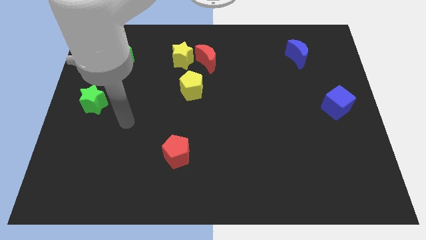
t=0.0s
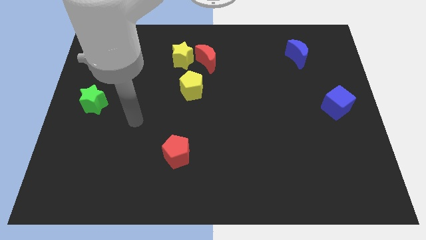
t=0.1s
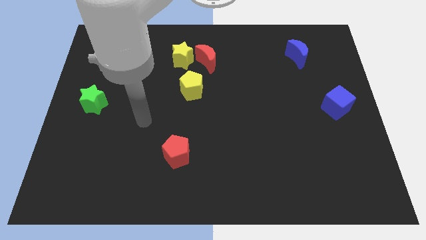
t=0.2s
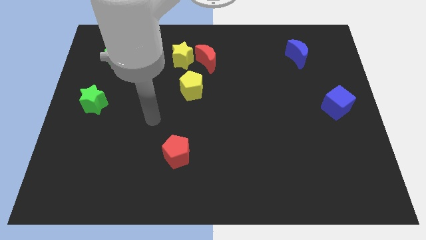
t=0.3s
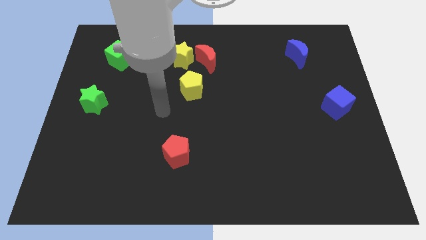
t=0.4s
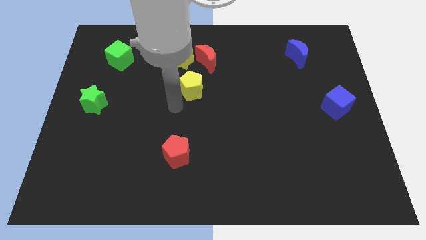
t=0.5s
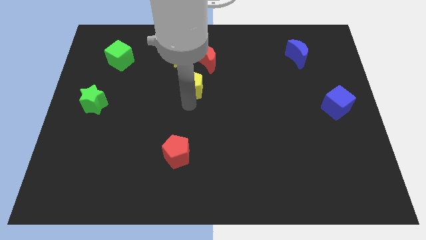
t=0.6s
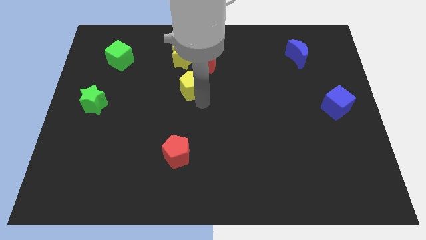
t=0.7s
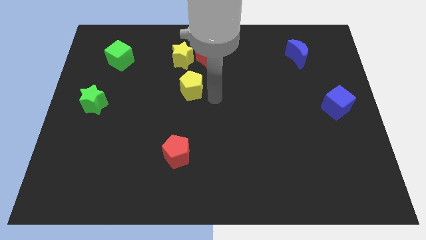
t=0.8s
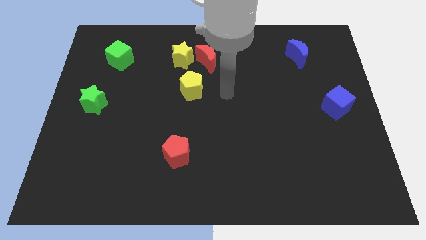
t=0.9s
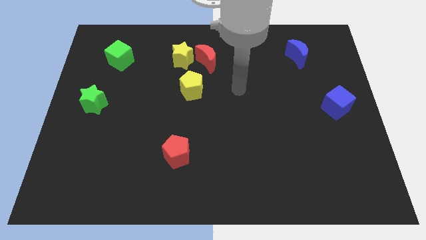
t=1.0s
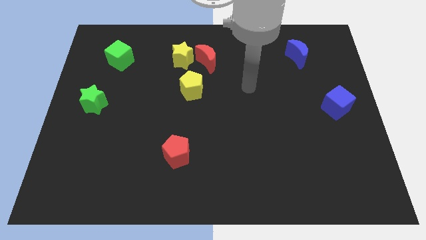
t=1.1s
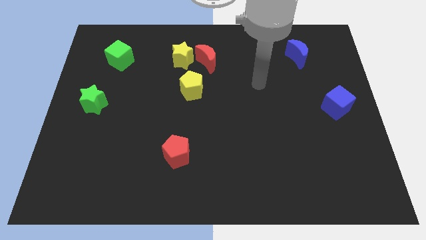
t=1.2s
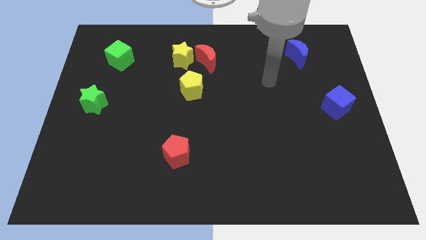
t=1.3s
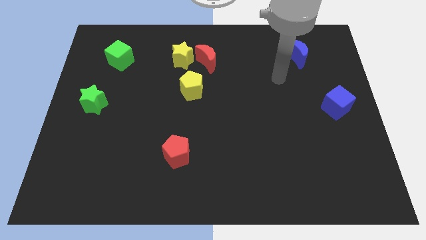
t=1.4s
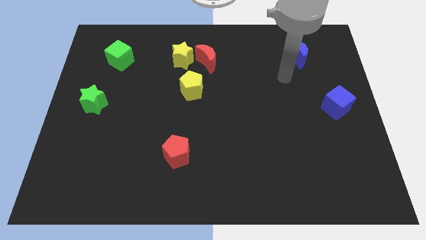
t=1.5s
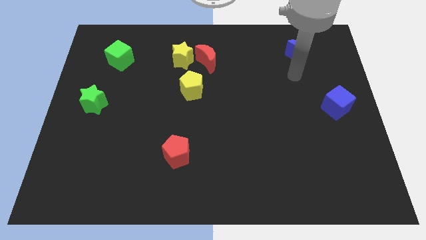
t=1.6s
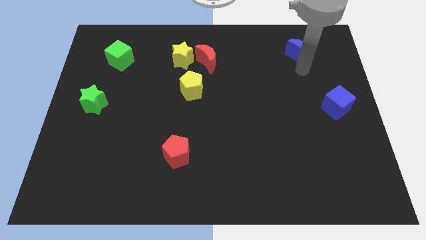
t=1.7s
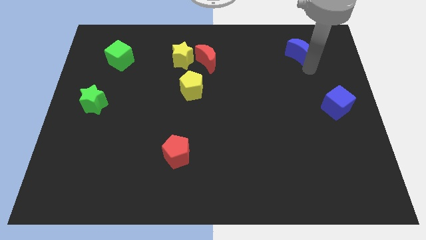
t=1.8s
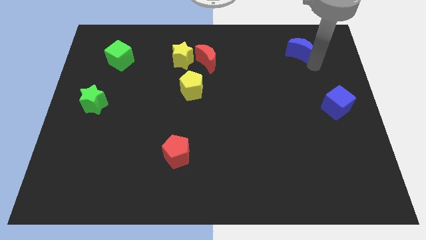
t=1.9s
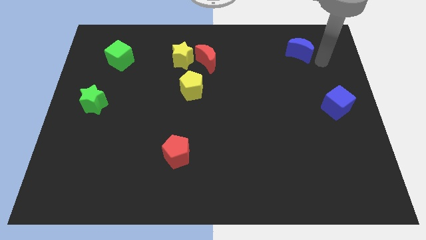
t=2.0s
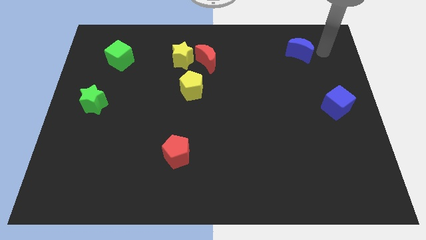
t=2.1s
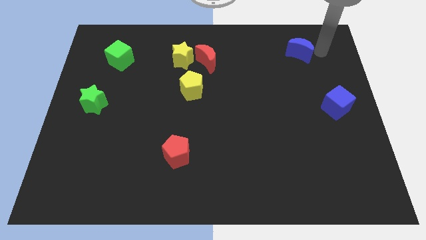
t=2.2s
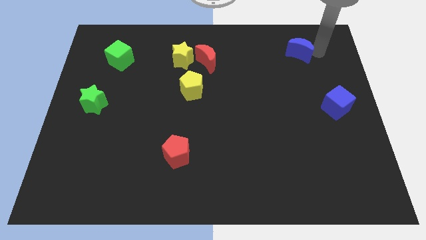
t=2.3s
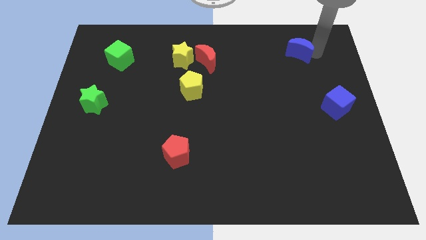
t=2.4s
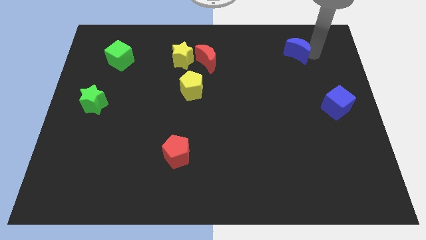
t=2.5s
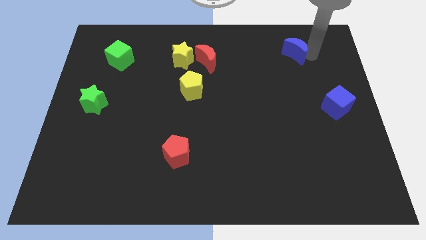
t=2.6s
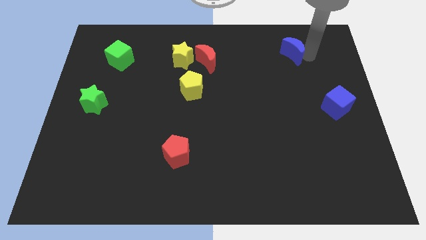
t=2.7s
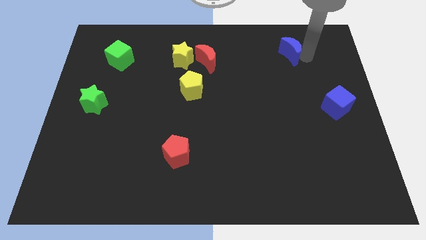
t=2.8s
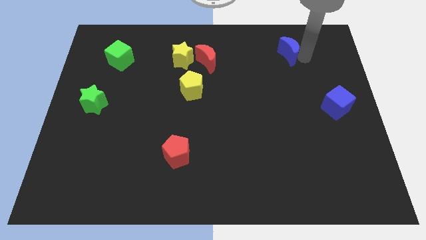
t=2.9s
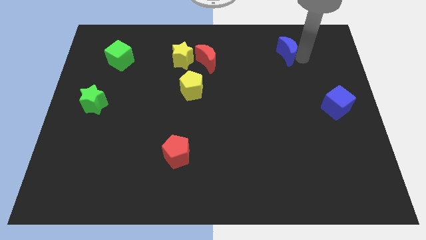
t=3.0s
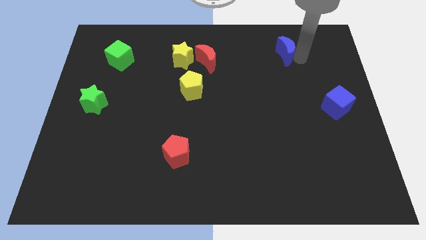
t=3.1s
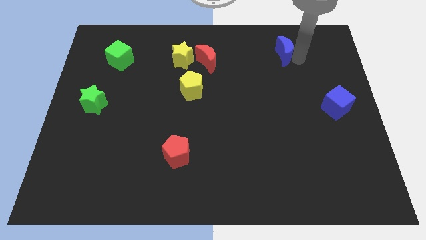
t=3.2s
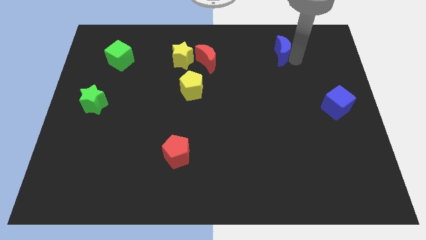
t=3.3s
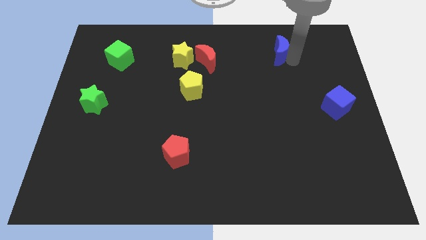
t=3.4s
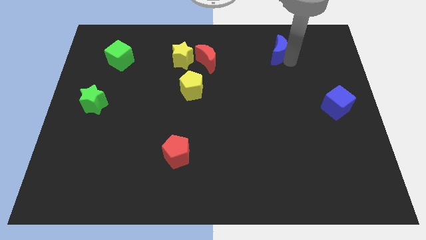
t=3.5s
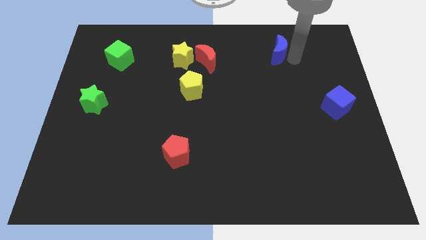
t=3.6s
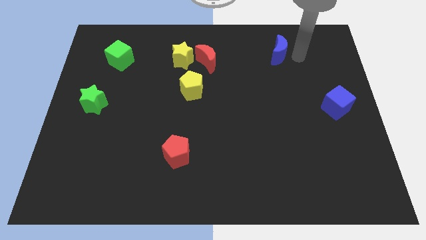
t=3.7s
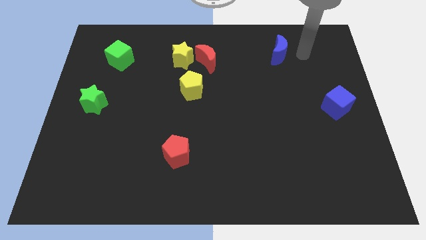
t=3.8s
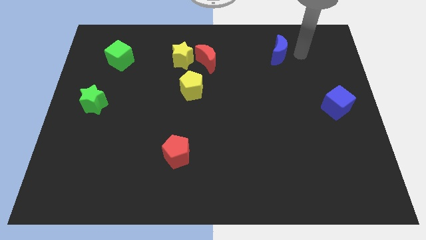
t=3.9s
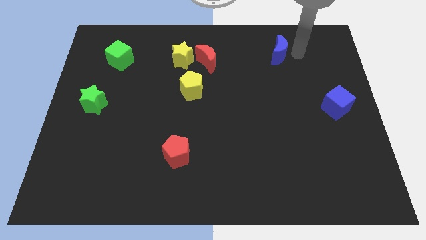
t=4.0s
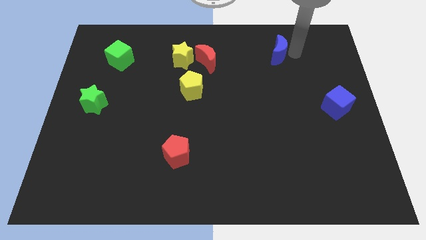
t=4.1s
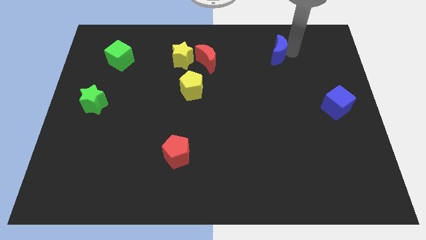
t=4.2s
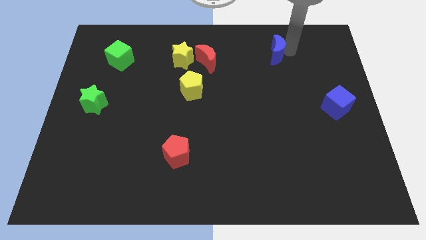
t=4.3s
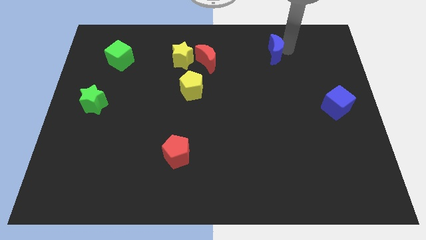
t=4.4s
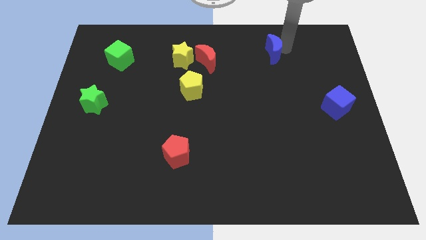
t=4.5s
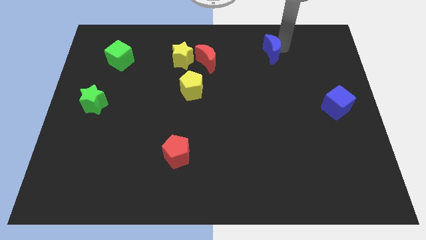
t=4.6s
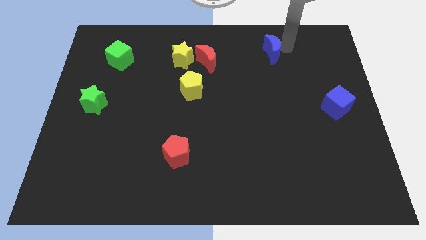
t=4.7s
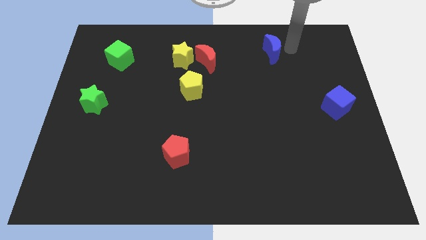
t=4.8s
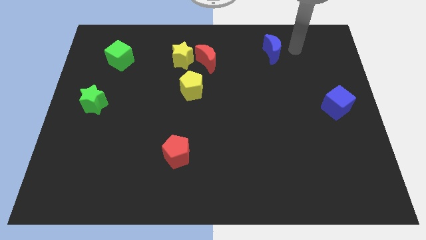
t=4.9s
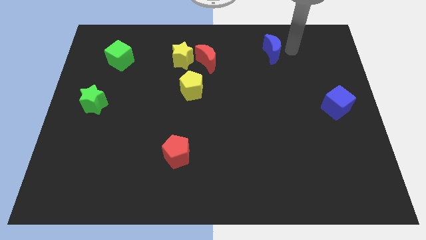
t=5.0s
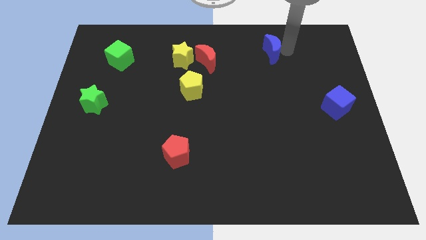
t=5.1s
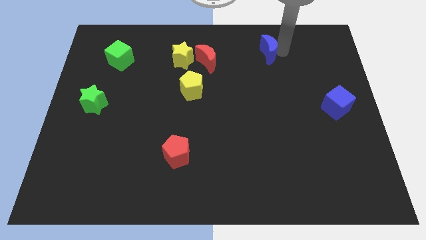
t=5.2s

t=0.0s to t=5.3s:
move the blue moon slightly left

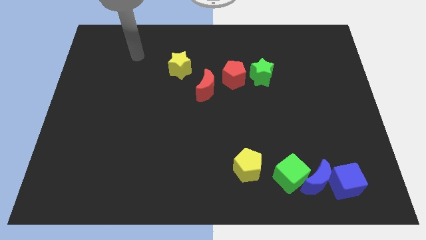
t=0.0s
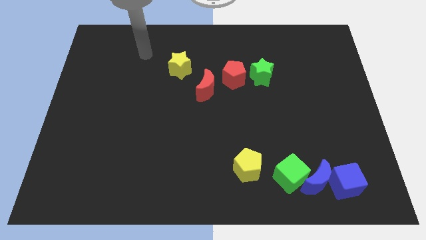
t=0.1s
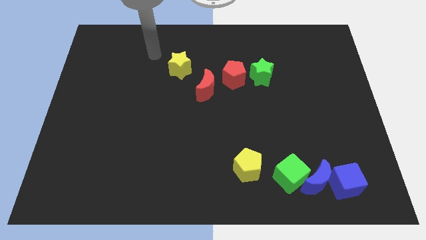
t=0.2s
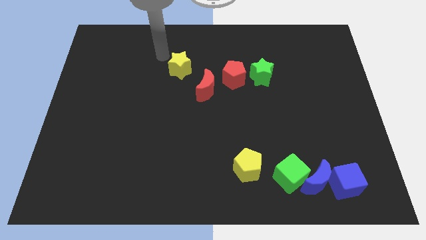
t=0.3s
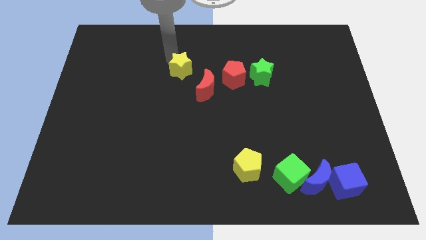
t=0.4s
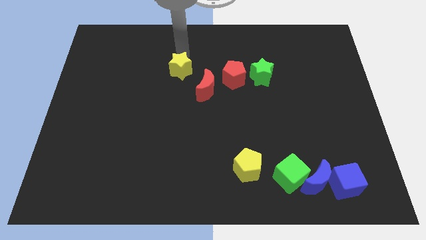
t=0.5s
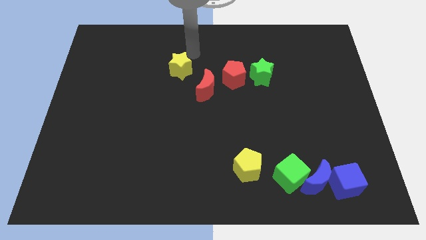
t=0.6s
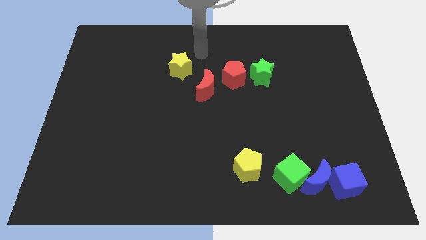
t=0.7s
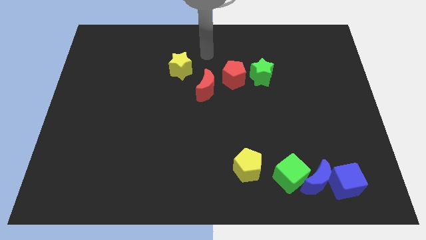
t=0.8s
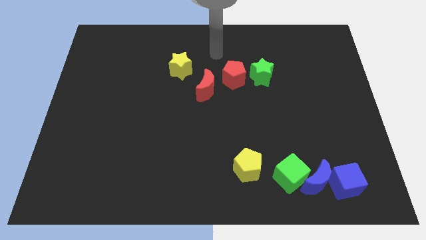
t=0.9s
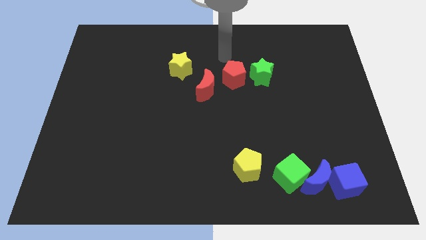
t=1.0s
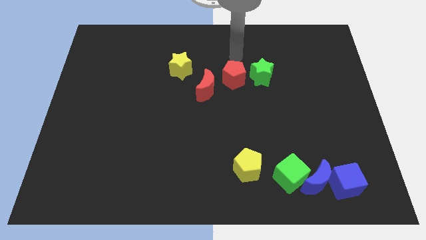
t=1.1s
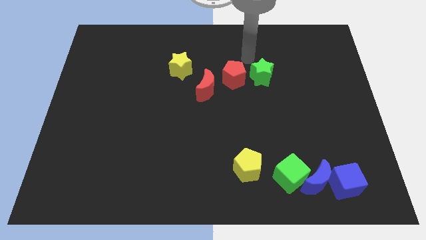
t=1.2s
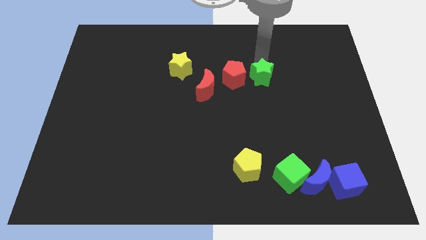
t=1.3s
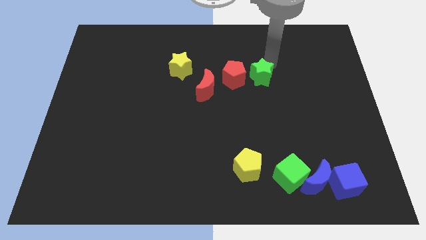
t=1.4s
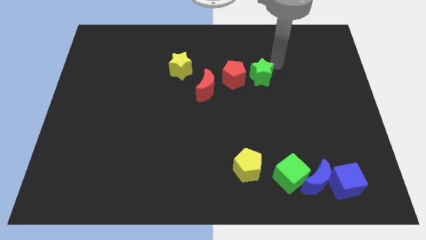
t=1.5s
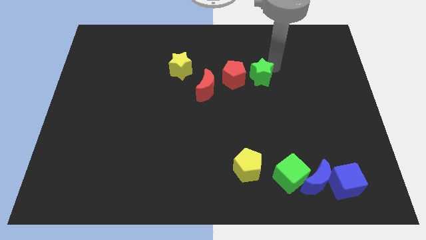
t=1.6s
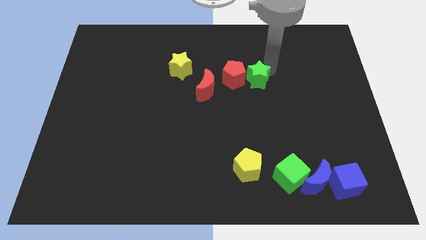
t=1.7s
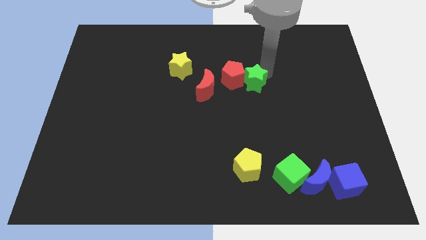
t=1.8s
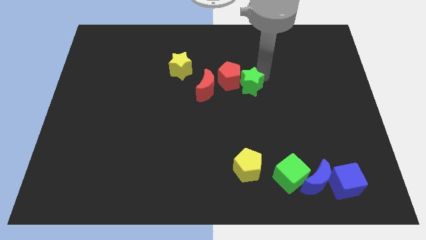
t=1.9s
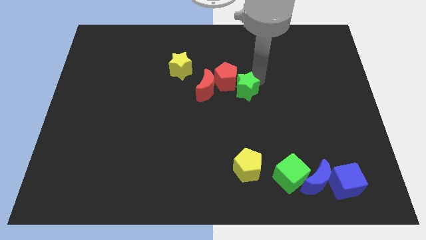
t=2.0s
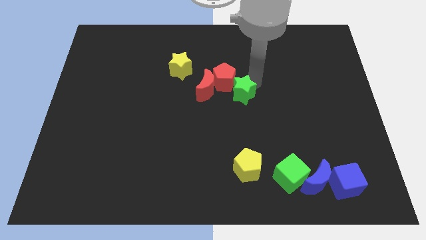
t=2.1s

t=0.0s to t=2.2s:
move the green star slightly downwards and left diagonally

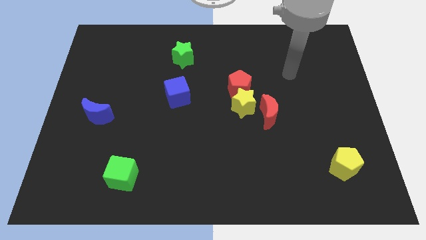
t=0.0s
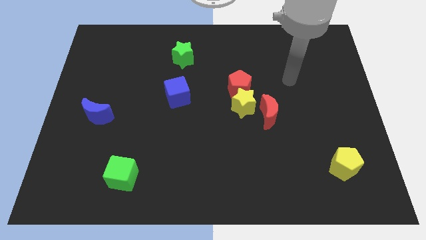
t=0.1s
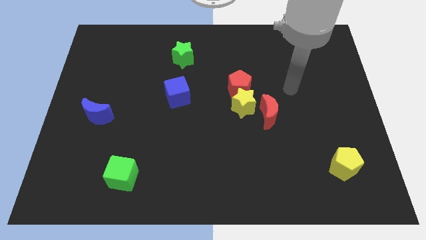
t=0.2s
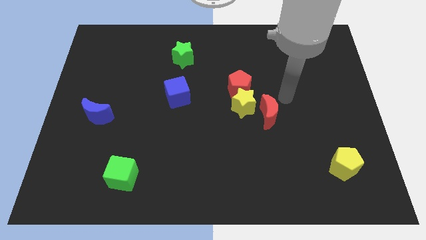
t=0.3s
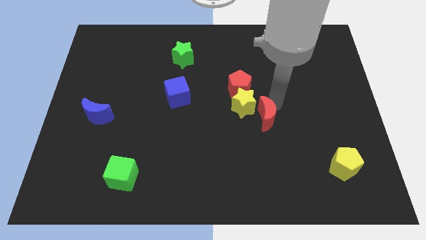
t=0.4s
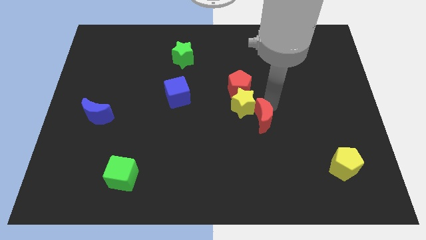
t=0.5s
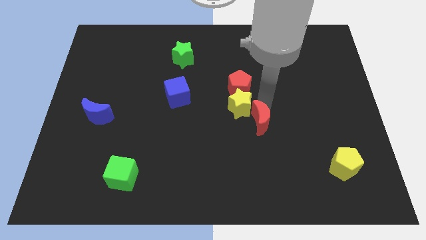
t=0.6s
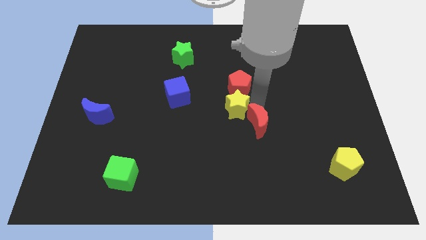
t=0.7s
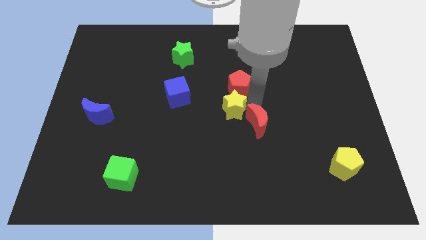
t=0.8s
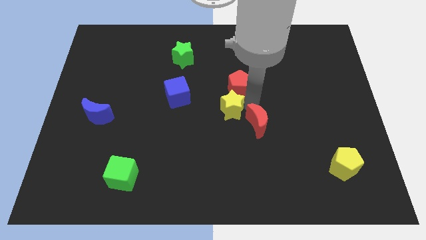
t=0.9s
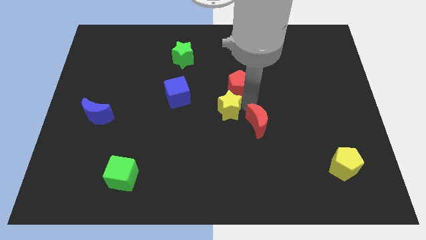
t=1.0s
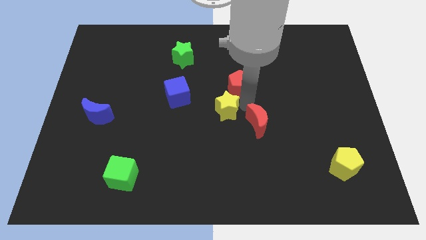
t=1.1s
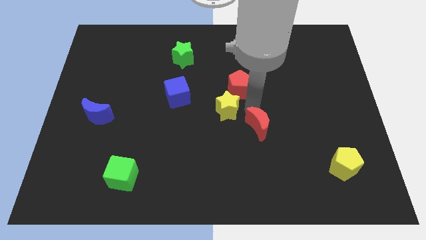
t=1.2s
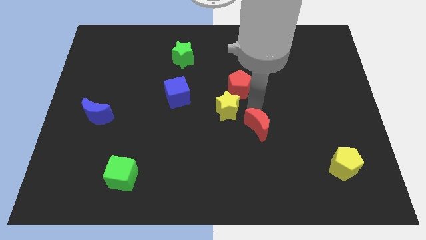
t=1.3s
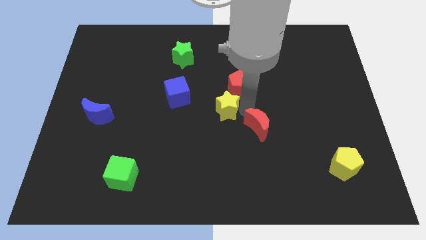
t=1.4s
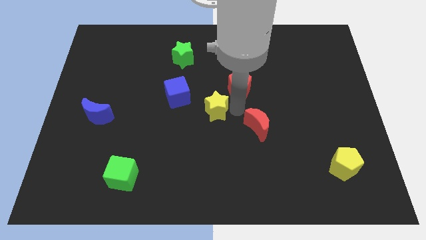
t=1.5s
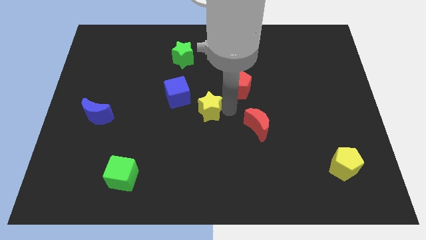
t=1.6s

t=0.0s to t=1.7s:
move the yellow star somewhat to the left
